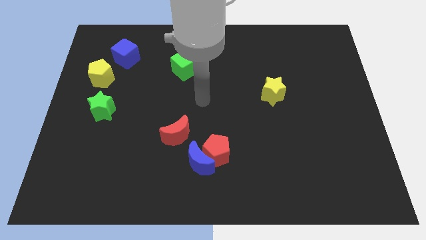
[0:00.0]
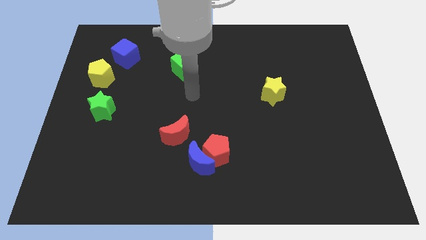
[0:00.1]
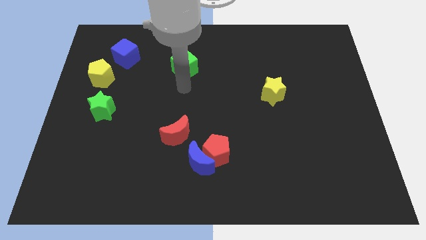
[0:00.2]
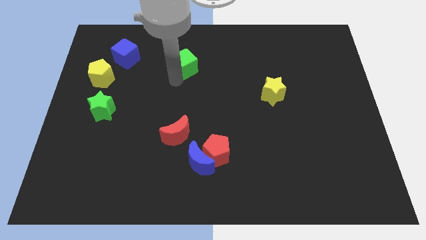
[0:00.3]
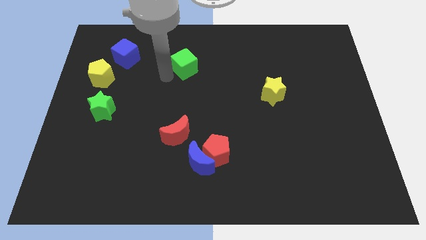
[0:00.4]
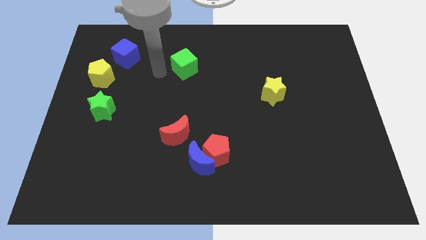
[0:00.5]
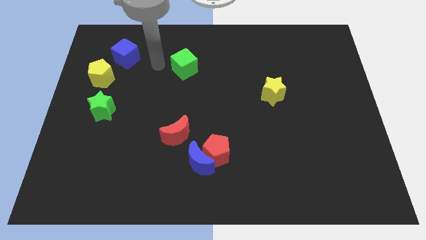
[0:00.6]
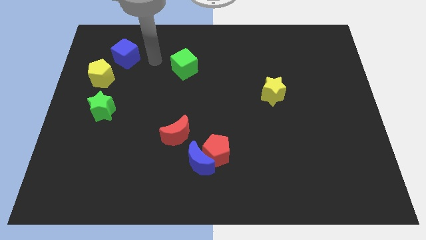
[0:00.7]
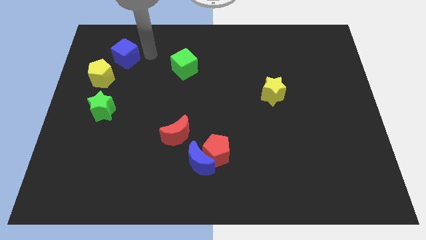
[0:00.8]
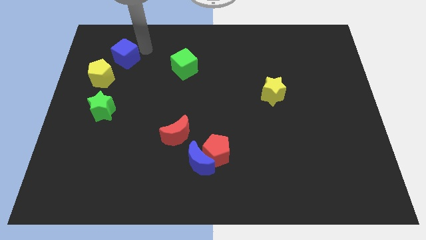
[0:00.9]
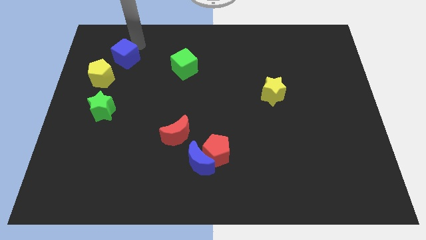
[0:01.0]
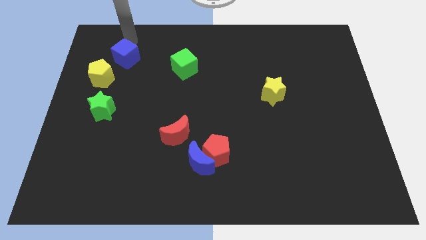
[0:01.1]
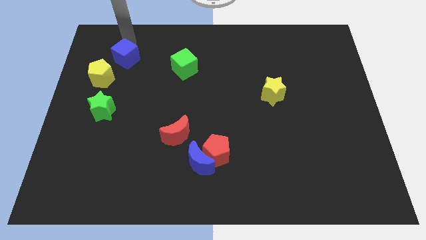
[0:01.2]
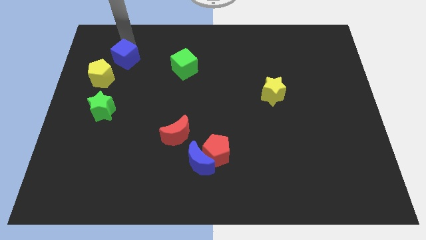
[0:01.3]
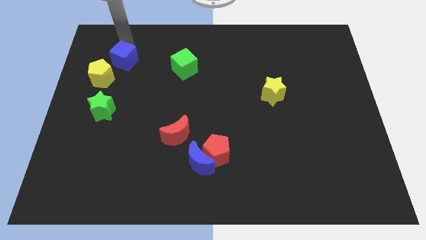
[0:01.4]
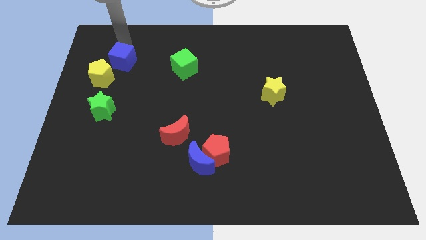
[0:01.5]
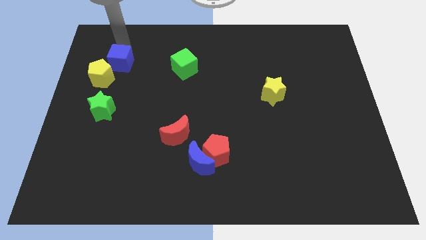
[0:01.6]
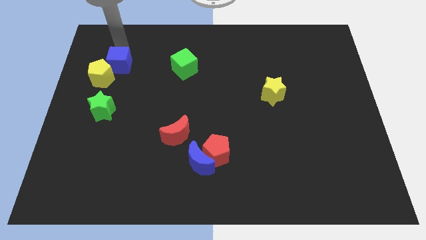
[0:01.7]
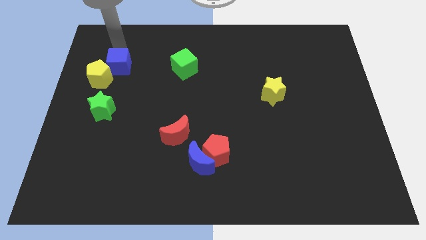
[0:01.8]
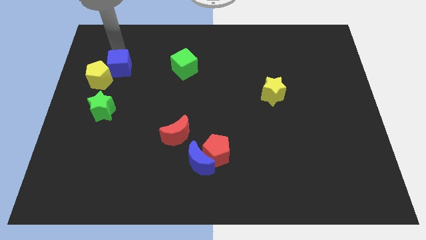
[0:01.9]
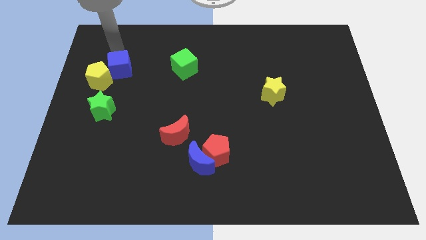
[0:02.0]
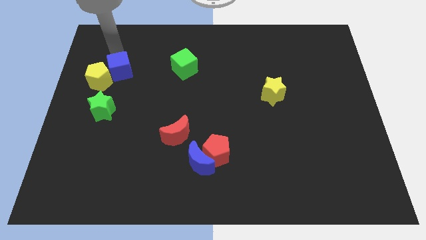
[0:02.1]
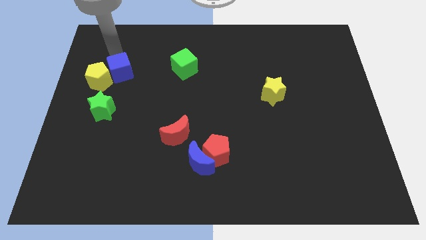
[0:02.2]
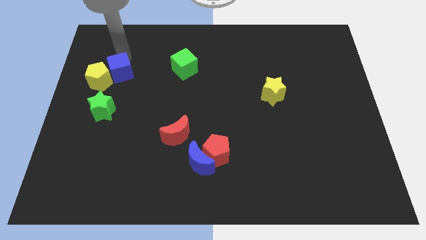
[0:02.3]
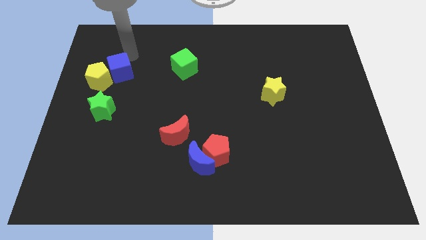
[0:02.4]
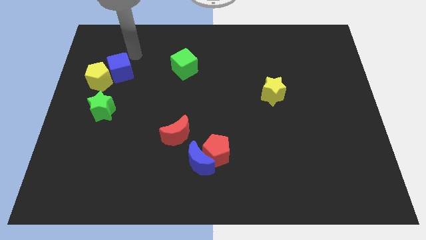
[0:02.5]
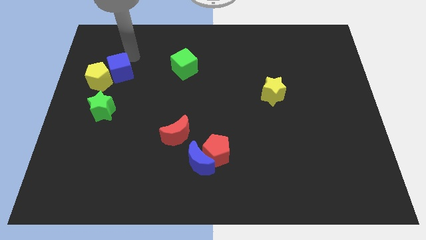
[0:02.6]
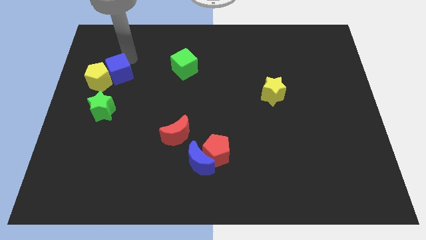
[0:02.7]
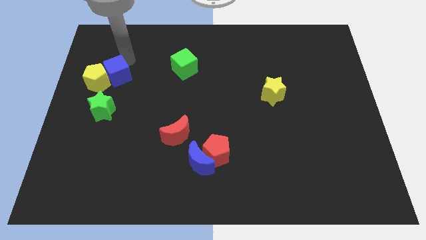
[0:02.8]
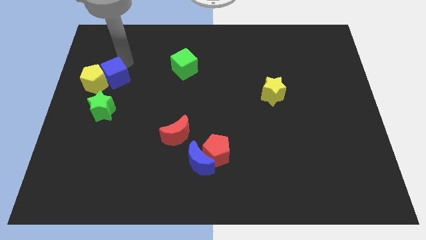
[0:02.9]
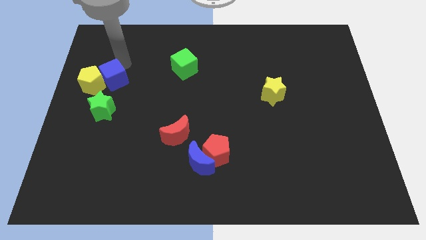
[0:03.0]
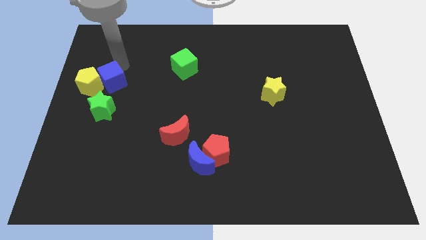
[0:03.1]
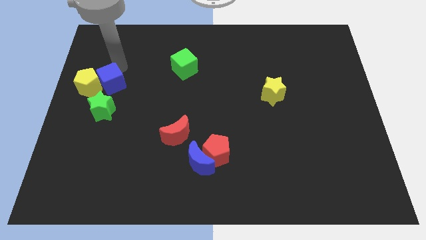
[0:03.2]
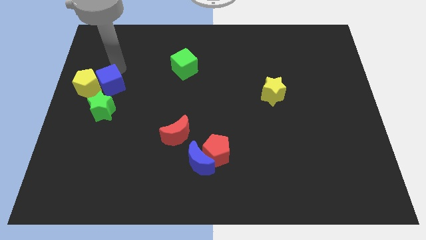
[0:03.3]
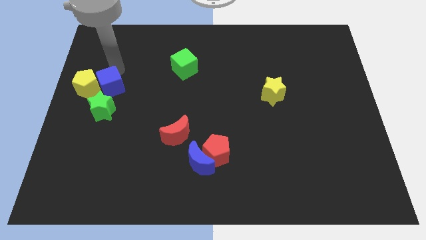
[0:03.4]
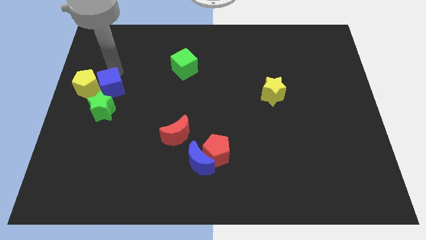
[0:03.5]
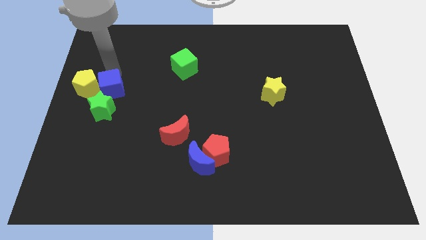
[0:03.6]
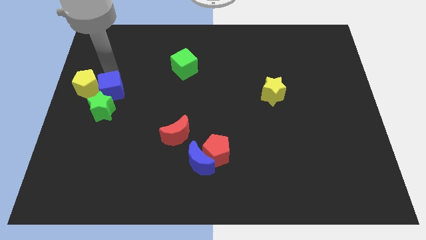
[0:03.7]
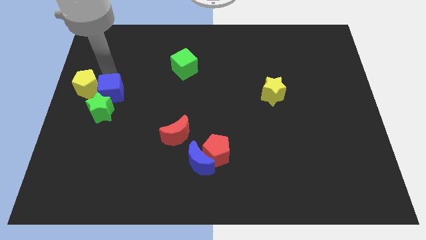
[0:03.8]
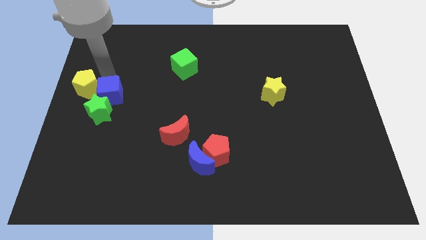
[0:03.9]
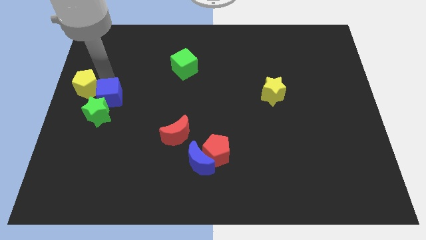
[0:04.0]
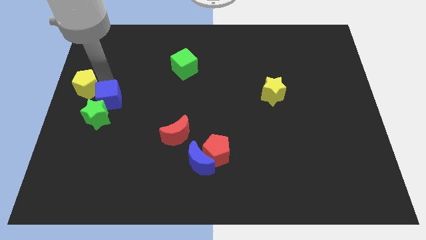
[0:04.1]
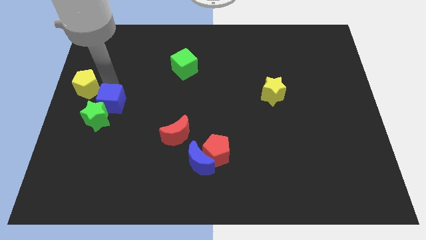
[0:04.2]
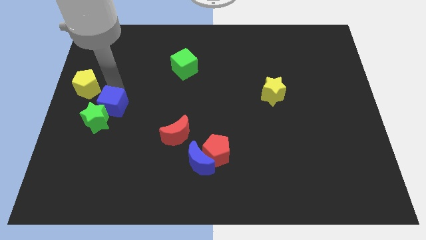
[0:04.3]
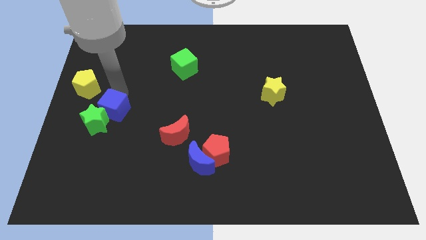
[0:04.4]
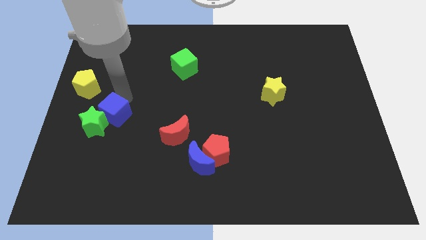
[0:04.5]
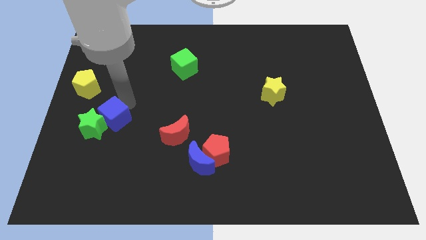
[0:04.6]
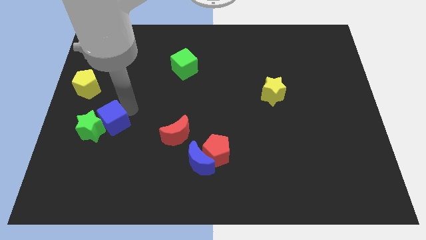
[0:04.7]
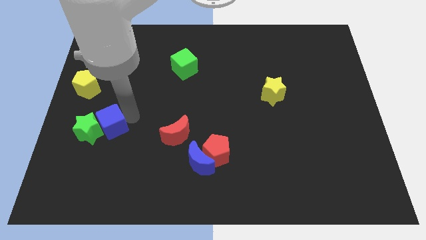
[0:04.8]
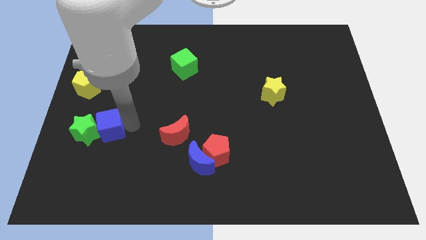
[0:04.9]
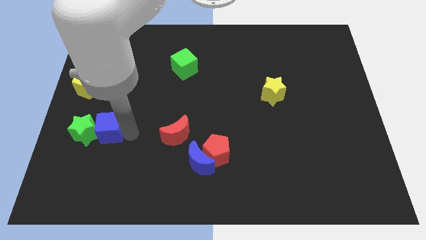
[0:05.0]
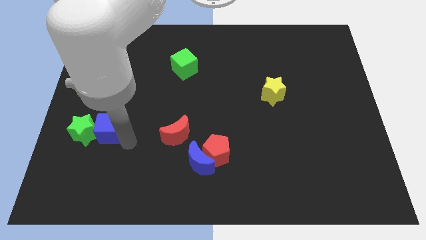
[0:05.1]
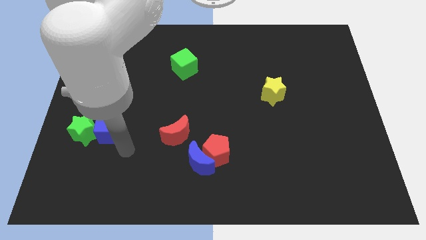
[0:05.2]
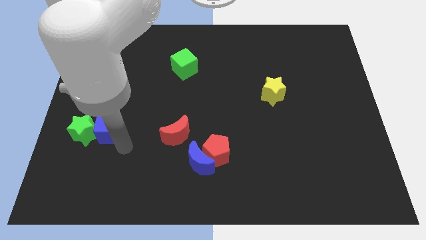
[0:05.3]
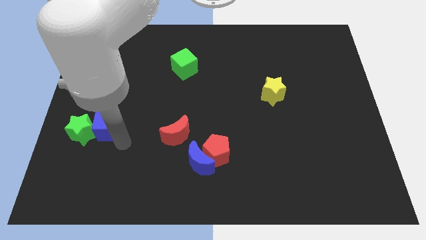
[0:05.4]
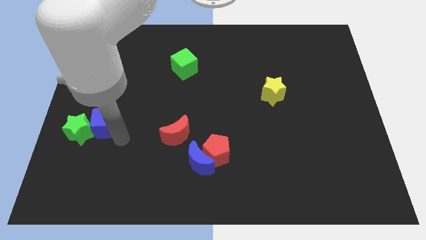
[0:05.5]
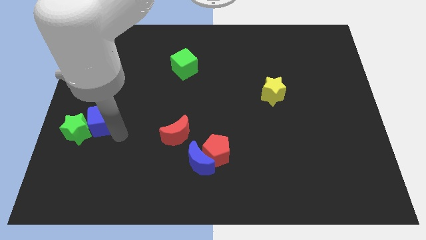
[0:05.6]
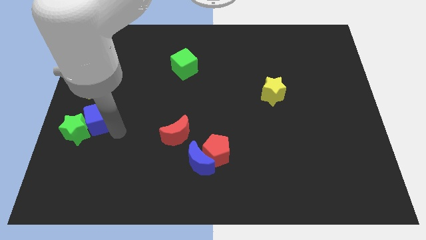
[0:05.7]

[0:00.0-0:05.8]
move the blue cube below the yellow pentagon

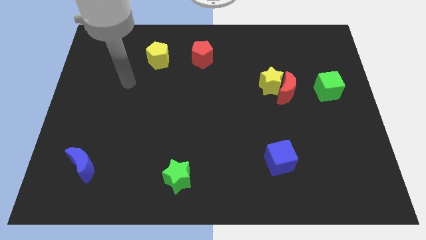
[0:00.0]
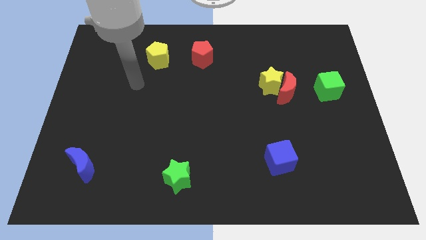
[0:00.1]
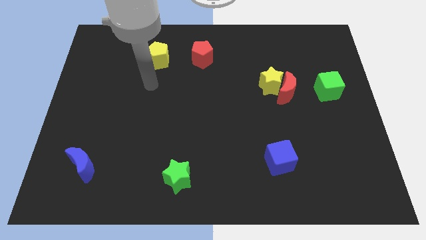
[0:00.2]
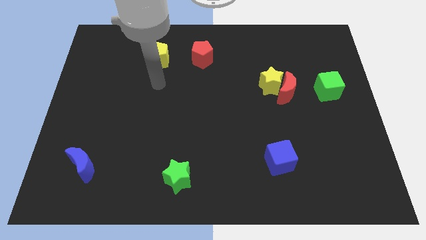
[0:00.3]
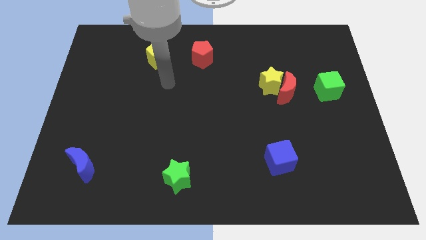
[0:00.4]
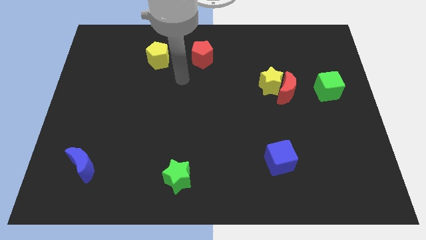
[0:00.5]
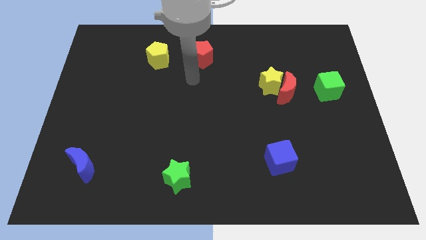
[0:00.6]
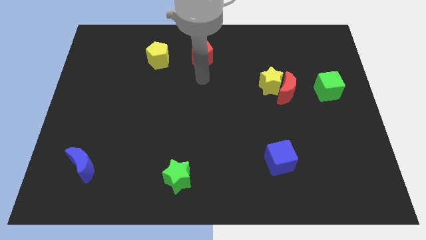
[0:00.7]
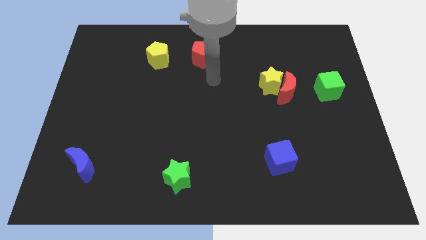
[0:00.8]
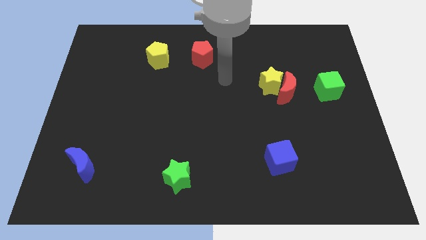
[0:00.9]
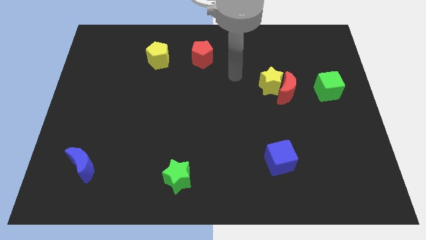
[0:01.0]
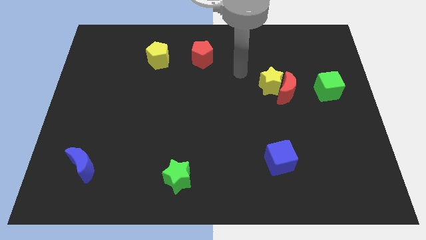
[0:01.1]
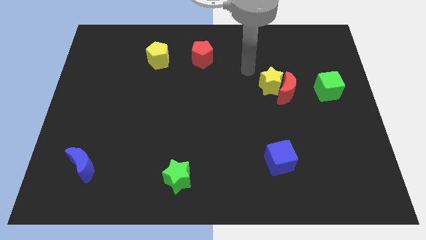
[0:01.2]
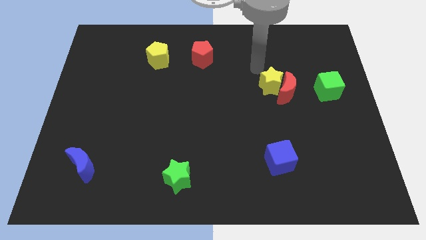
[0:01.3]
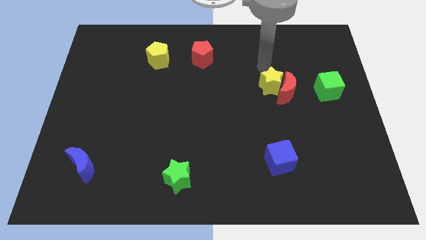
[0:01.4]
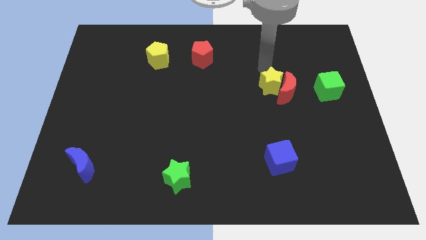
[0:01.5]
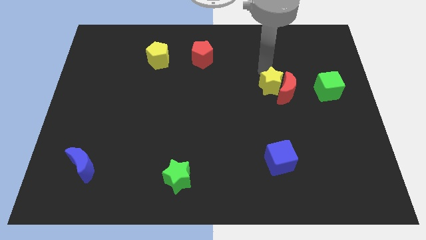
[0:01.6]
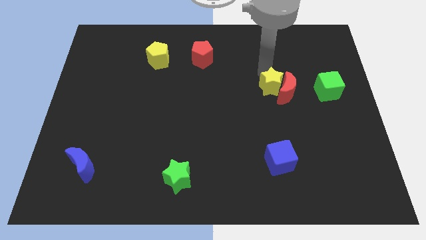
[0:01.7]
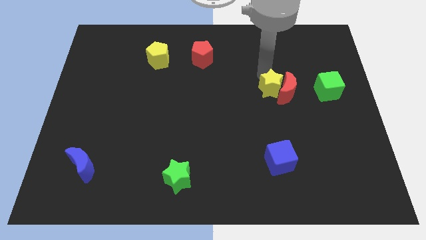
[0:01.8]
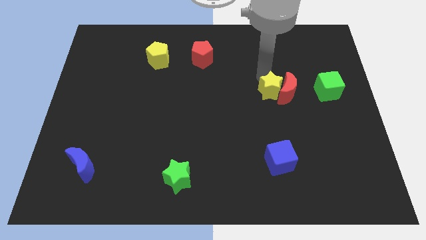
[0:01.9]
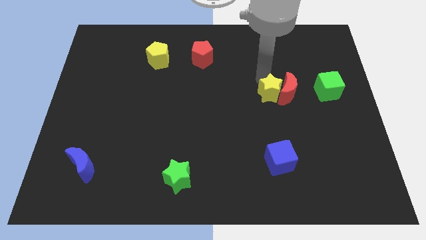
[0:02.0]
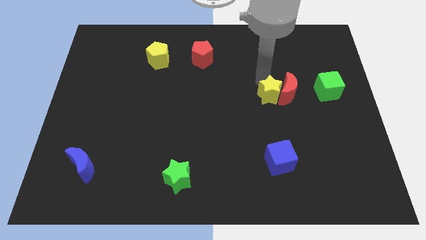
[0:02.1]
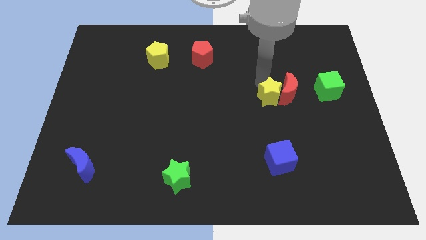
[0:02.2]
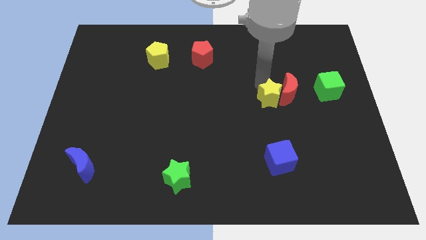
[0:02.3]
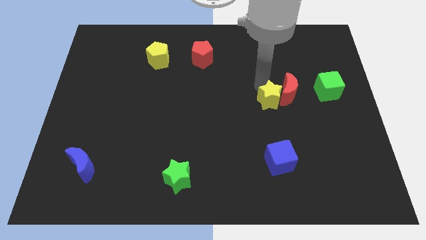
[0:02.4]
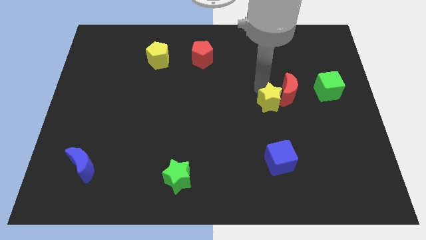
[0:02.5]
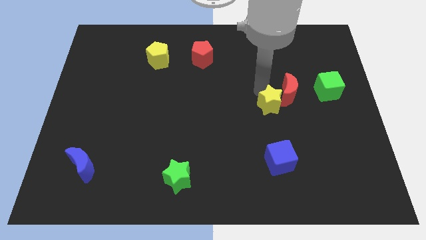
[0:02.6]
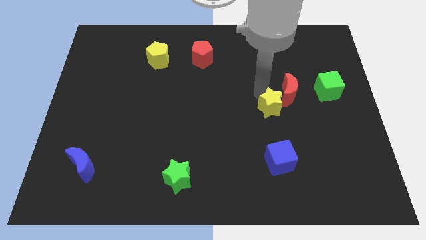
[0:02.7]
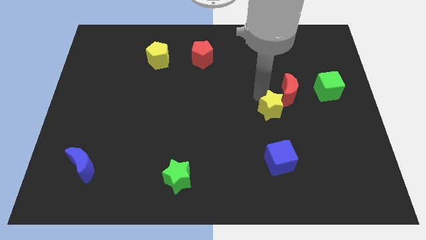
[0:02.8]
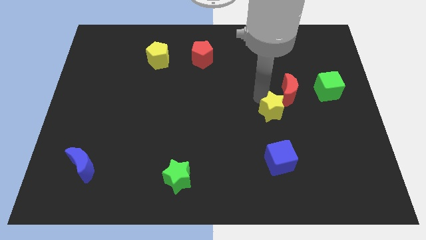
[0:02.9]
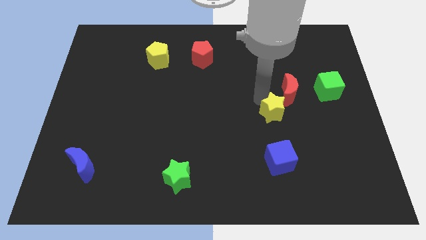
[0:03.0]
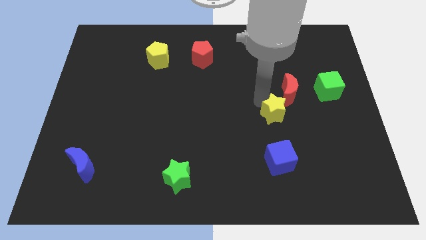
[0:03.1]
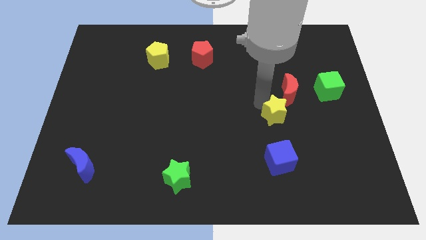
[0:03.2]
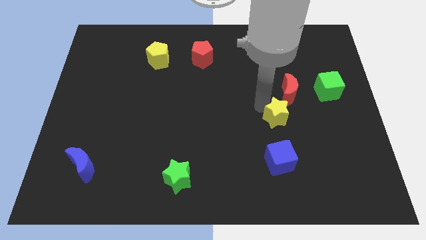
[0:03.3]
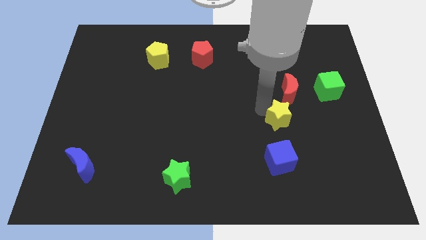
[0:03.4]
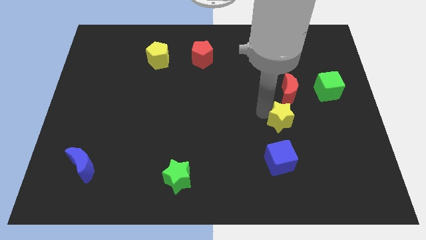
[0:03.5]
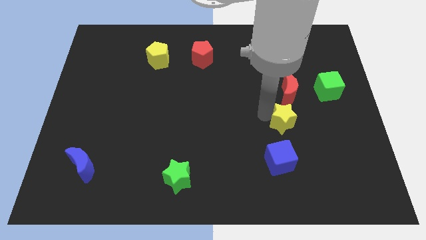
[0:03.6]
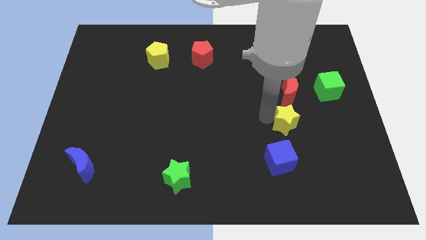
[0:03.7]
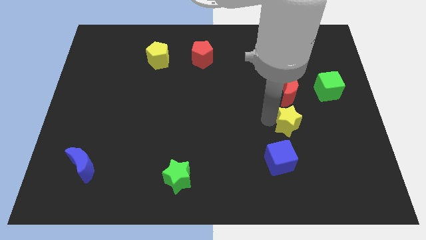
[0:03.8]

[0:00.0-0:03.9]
put the yellow star diagonally up and to the right of the blue cube
